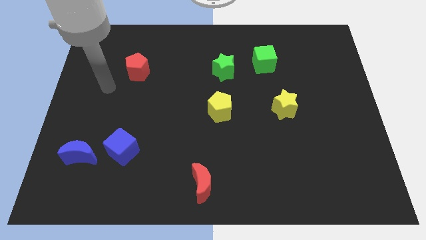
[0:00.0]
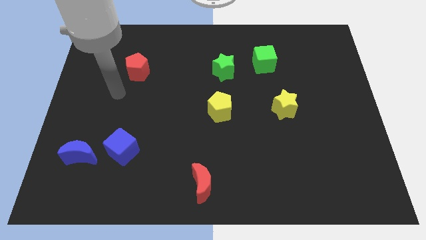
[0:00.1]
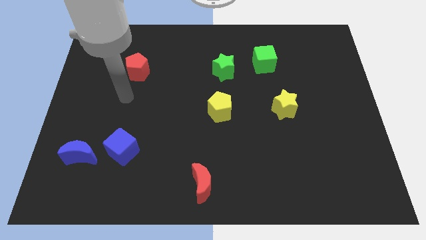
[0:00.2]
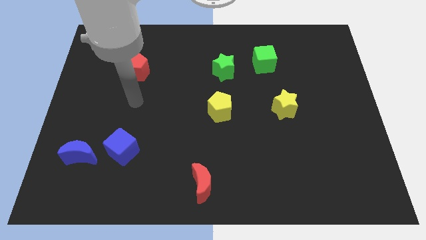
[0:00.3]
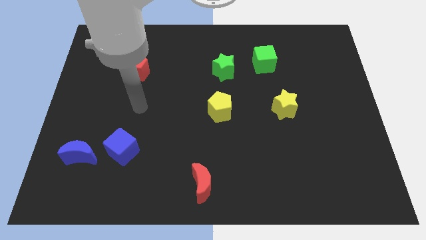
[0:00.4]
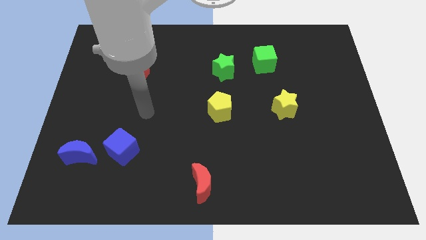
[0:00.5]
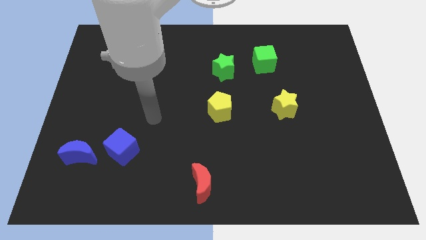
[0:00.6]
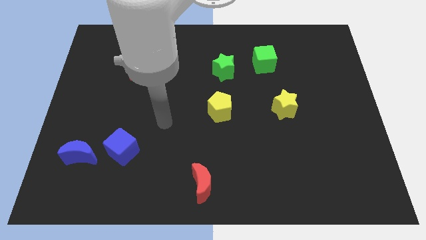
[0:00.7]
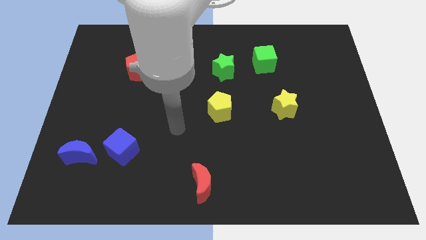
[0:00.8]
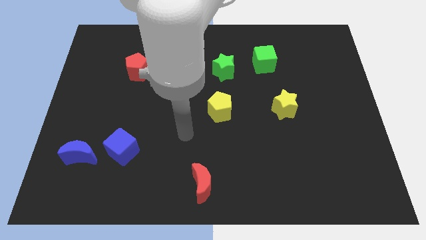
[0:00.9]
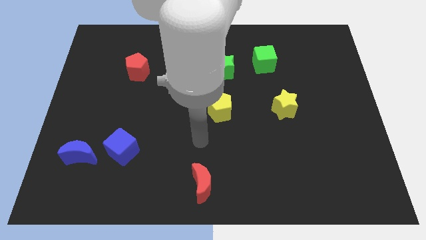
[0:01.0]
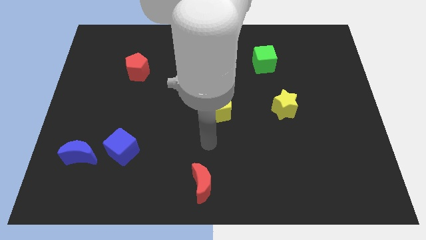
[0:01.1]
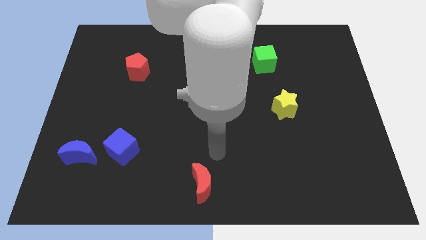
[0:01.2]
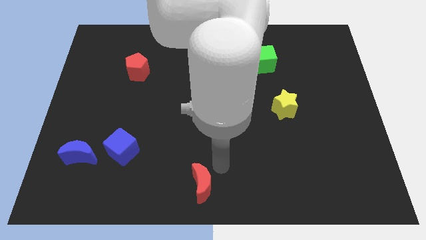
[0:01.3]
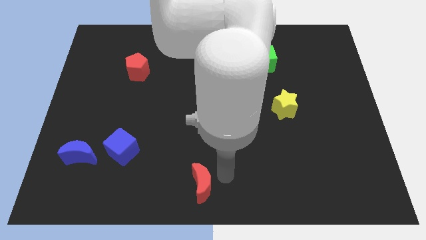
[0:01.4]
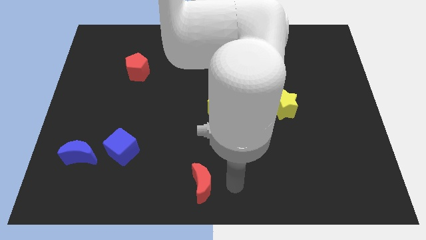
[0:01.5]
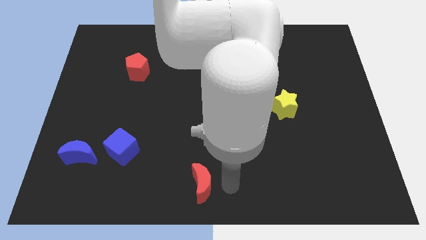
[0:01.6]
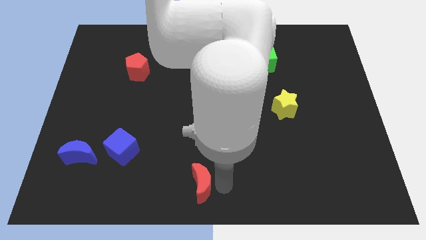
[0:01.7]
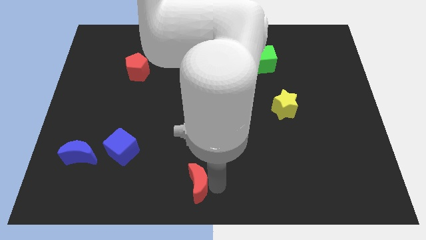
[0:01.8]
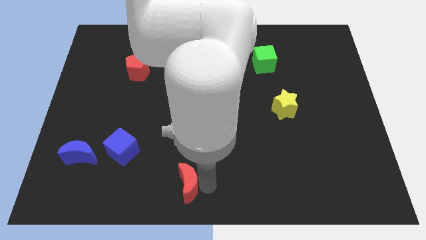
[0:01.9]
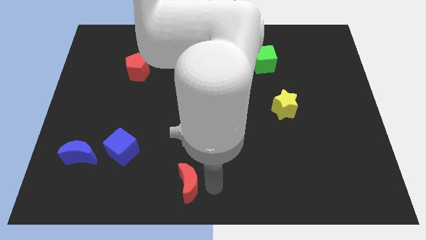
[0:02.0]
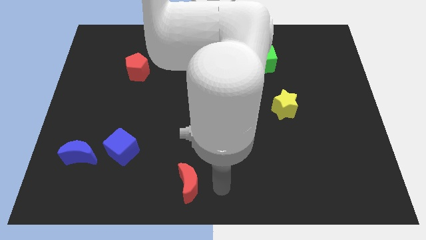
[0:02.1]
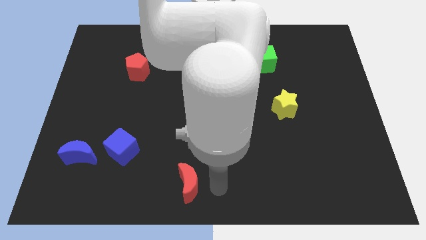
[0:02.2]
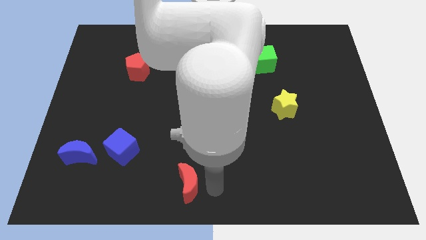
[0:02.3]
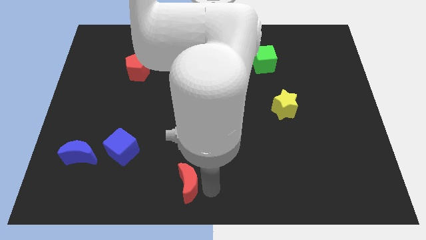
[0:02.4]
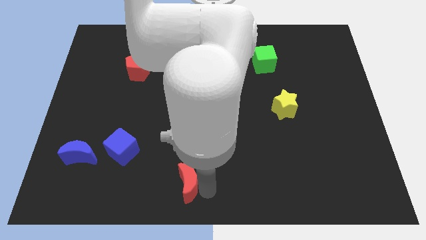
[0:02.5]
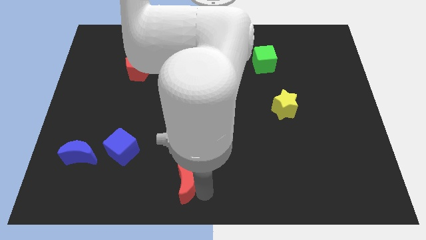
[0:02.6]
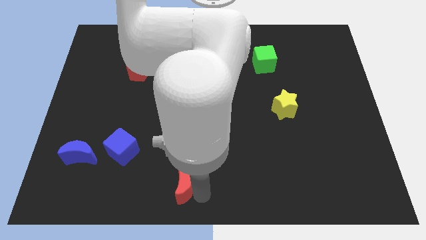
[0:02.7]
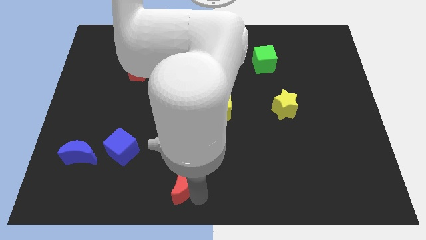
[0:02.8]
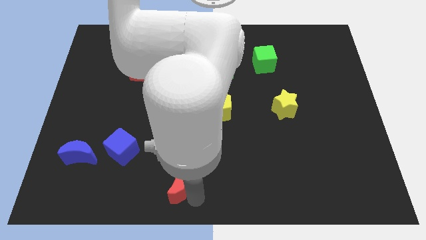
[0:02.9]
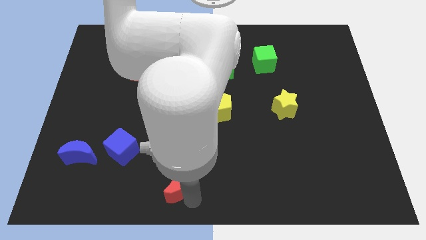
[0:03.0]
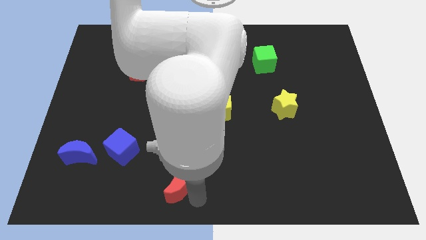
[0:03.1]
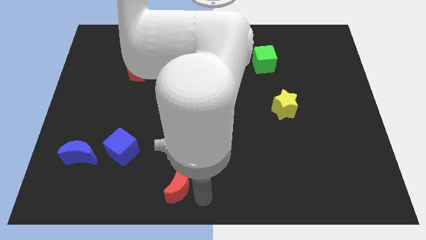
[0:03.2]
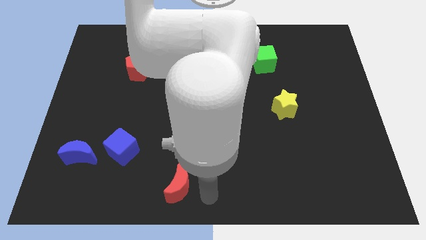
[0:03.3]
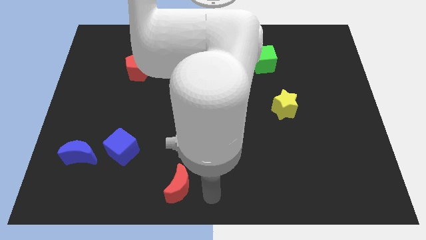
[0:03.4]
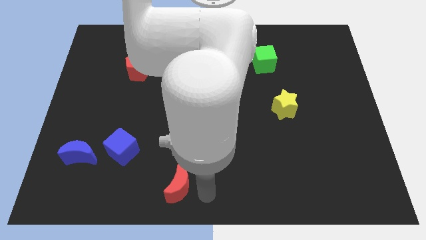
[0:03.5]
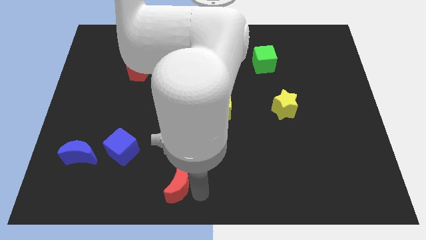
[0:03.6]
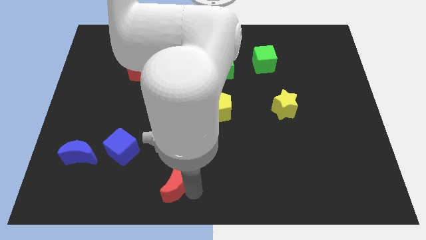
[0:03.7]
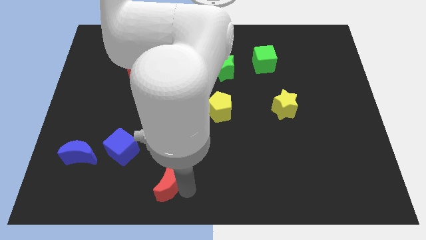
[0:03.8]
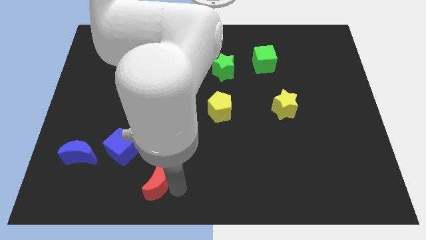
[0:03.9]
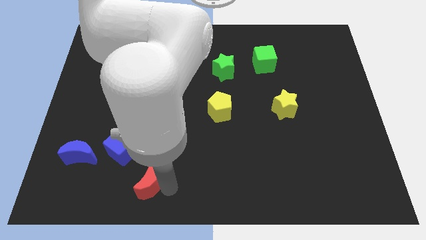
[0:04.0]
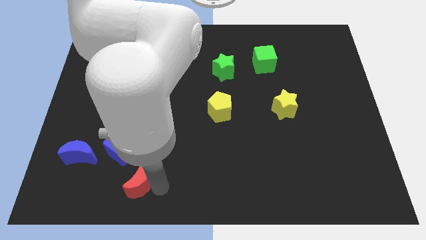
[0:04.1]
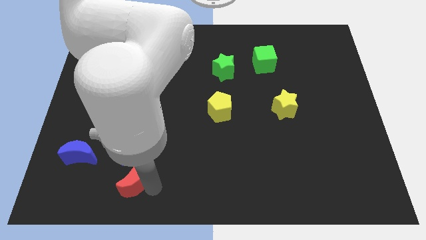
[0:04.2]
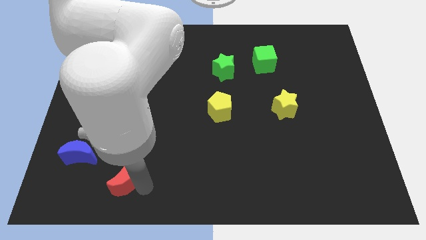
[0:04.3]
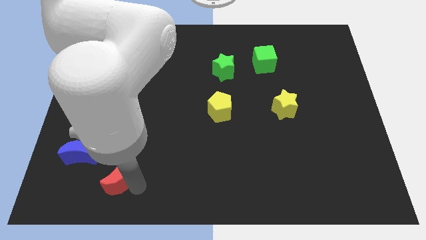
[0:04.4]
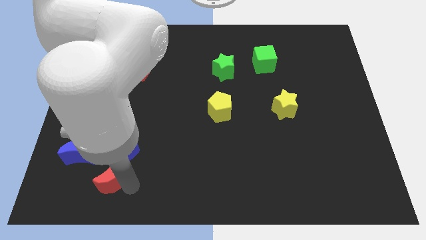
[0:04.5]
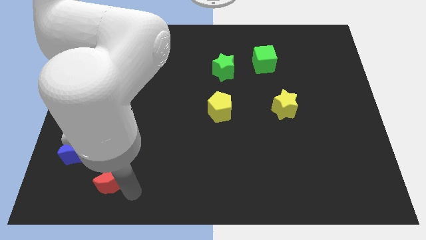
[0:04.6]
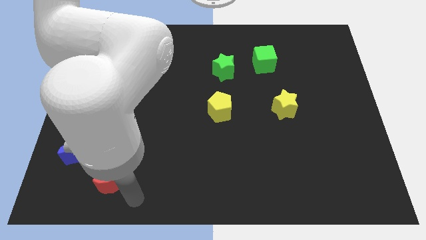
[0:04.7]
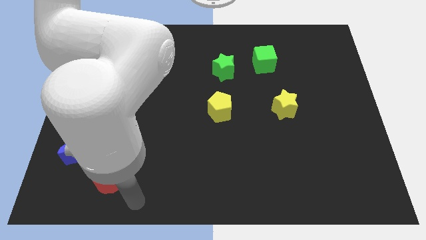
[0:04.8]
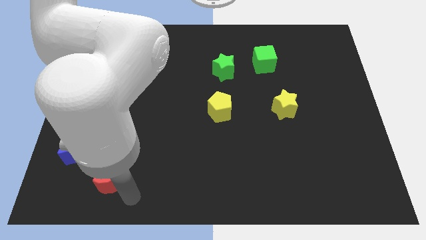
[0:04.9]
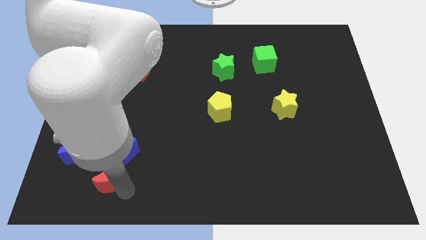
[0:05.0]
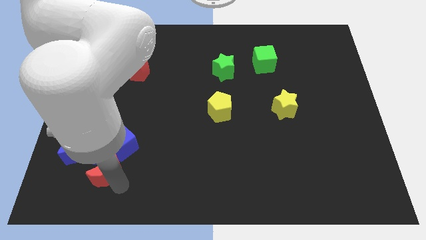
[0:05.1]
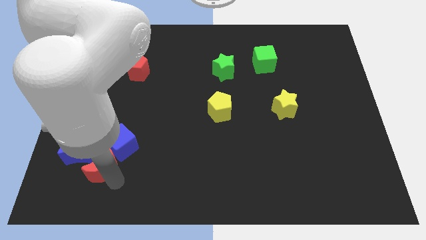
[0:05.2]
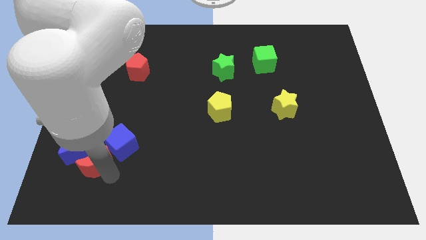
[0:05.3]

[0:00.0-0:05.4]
slide the red moon to the blue moon

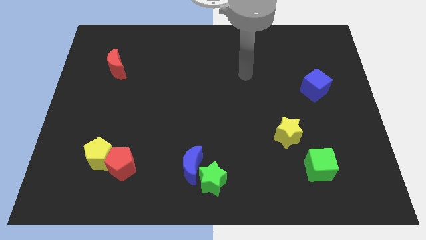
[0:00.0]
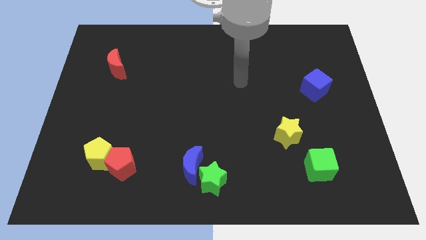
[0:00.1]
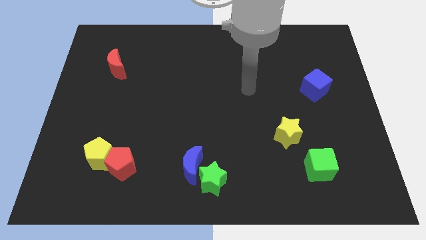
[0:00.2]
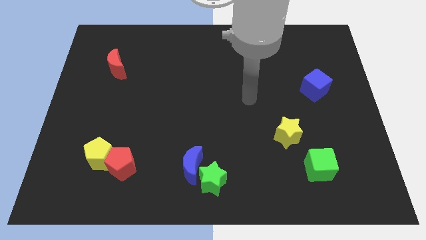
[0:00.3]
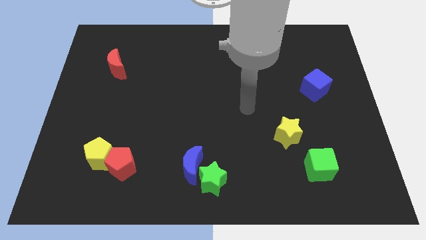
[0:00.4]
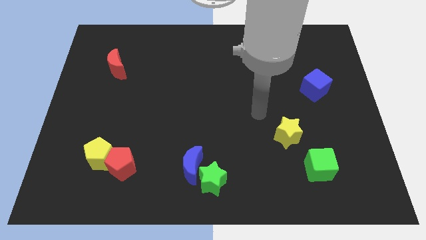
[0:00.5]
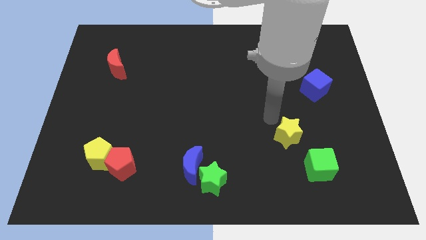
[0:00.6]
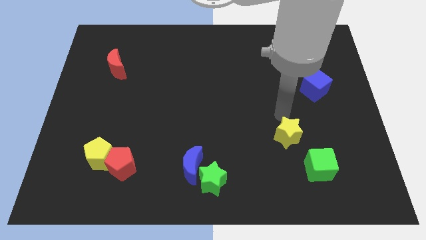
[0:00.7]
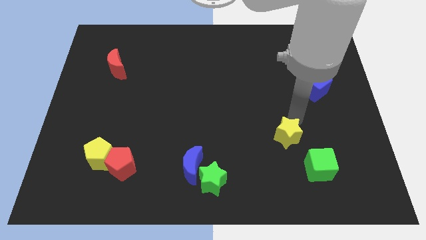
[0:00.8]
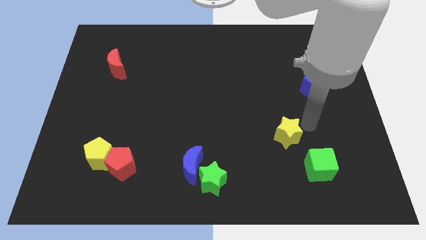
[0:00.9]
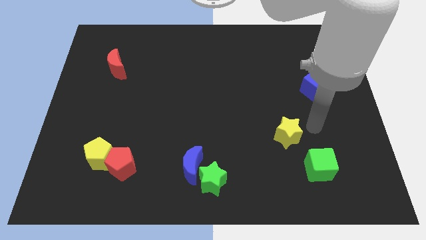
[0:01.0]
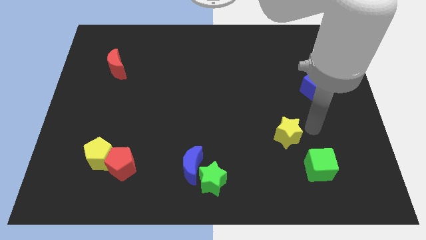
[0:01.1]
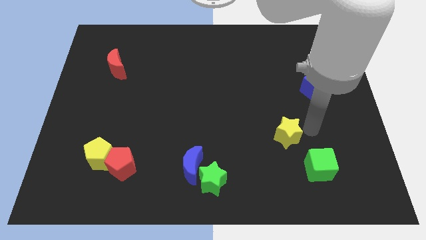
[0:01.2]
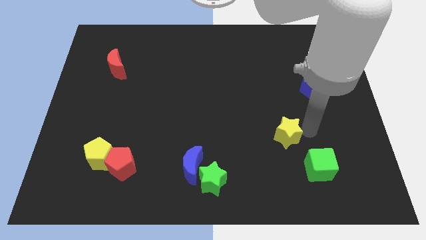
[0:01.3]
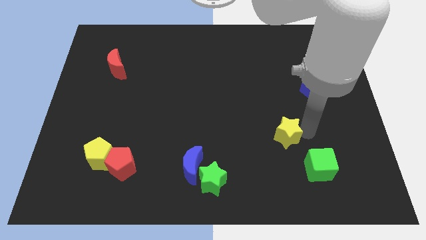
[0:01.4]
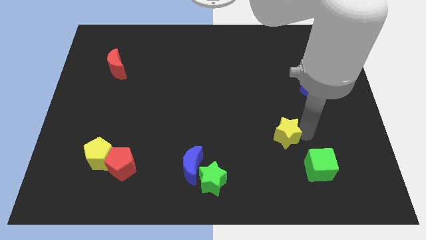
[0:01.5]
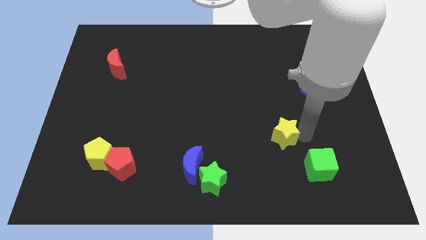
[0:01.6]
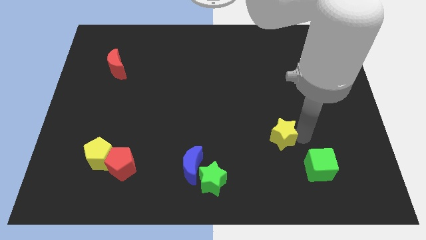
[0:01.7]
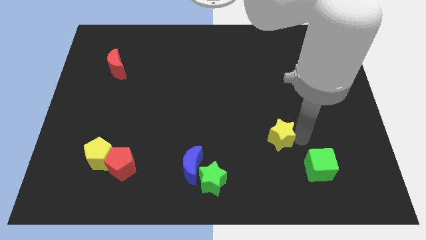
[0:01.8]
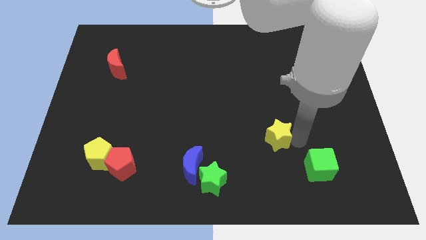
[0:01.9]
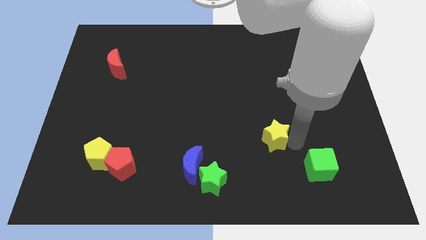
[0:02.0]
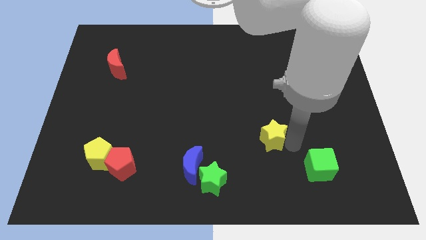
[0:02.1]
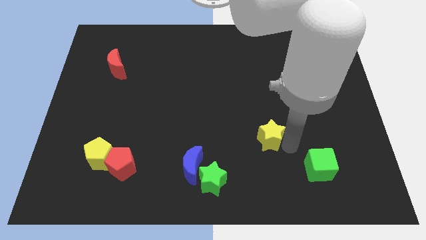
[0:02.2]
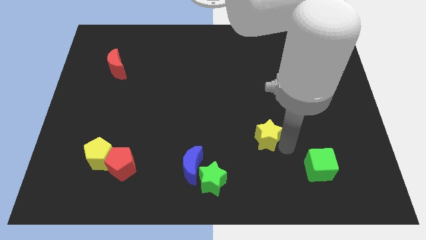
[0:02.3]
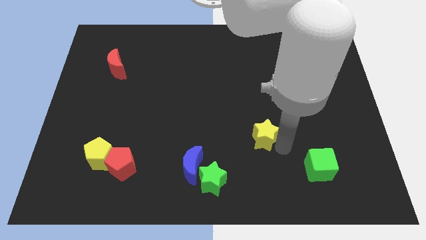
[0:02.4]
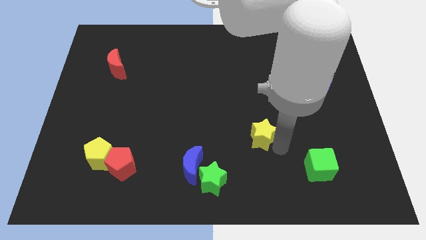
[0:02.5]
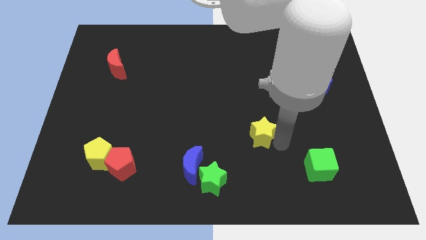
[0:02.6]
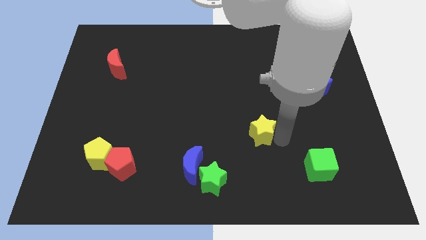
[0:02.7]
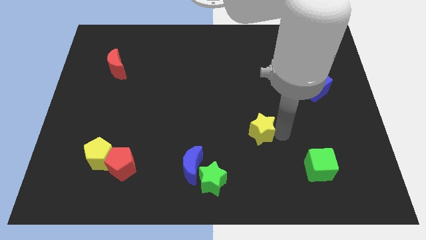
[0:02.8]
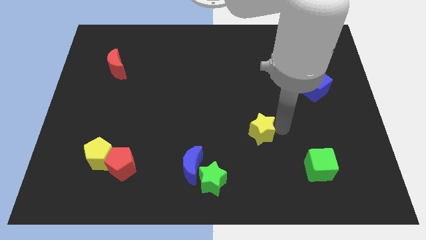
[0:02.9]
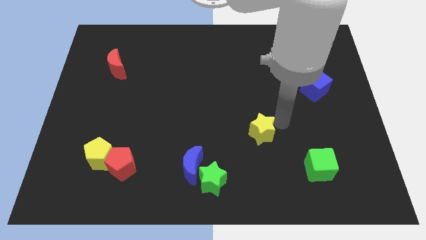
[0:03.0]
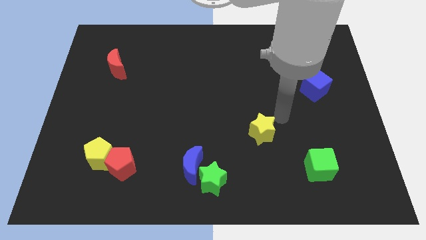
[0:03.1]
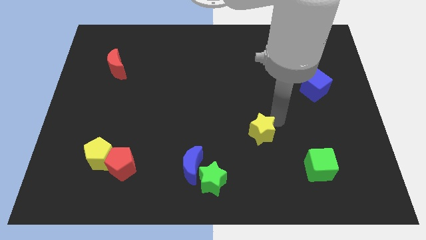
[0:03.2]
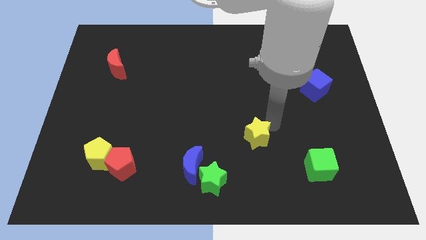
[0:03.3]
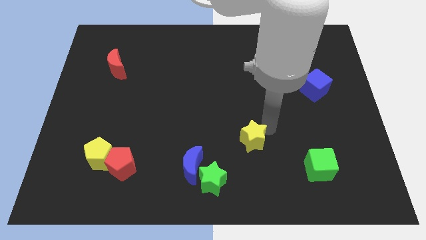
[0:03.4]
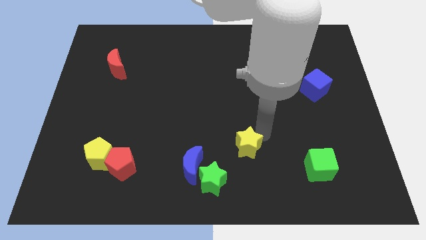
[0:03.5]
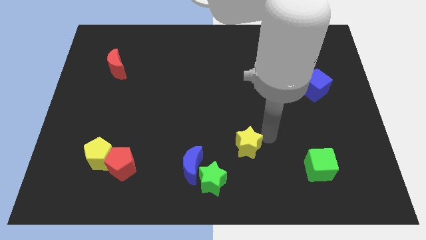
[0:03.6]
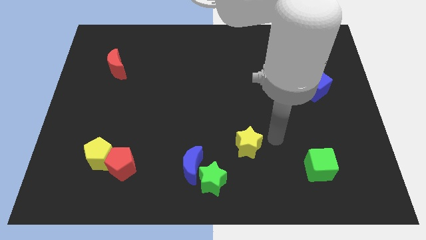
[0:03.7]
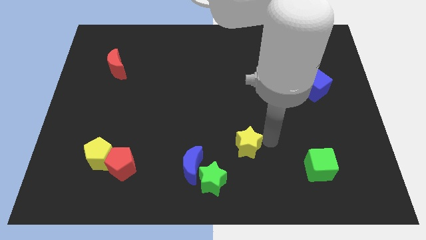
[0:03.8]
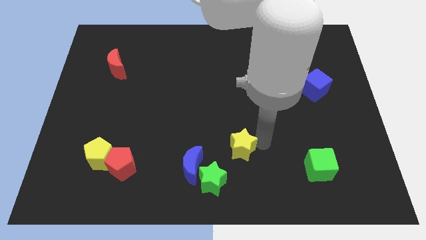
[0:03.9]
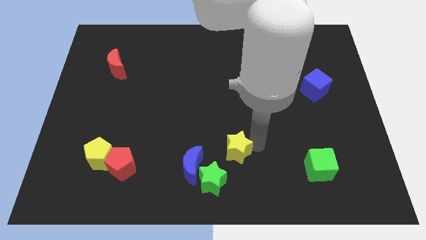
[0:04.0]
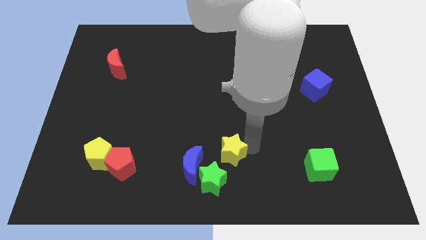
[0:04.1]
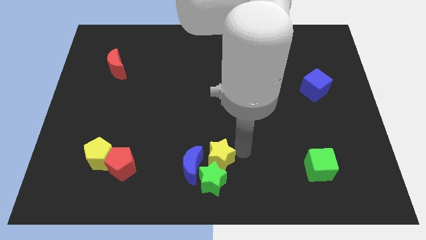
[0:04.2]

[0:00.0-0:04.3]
put the yellow star towards the blue moon
